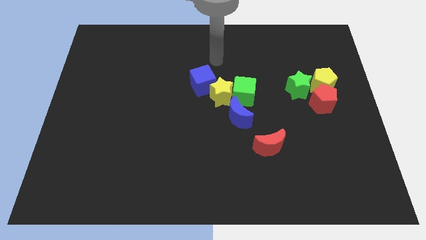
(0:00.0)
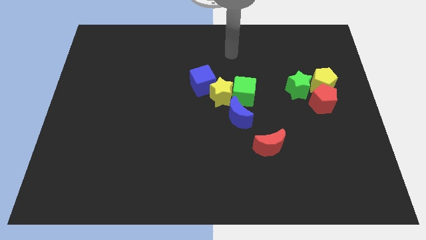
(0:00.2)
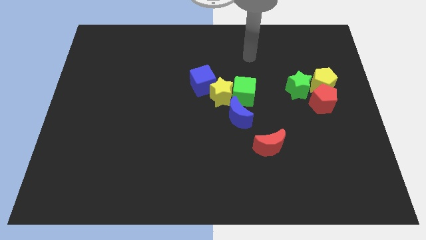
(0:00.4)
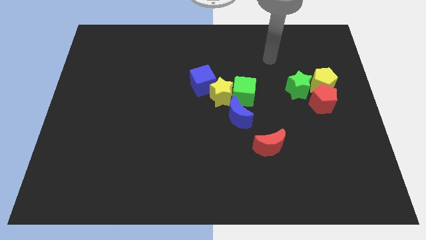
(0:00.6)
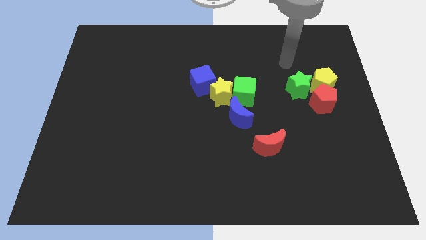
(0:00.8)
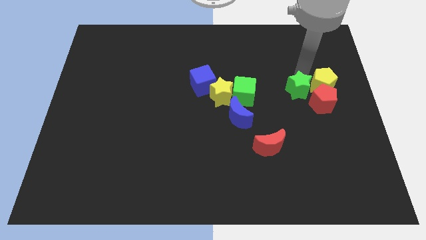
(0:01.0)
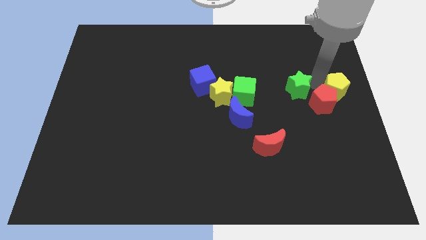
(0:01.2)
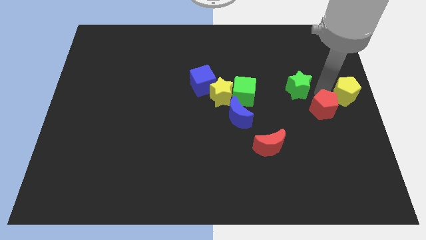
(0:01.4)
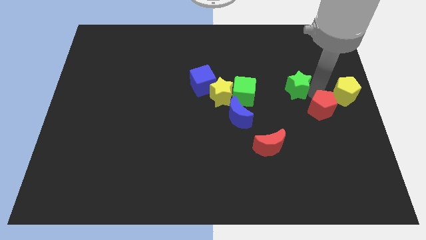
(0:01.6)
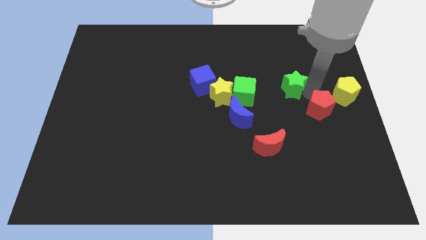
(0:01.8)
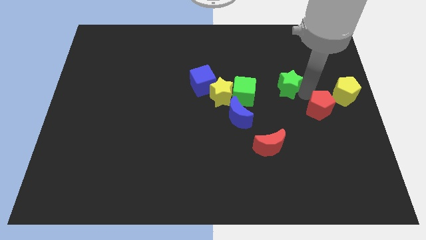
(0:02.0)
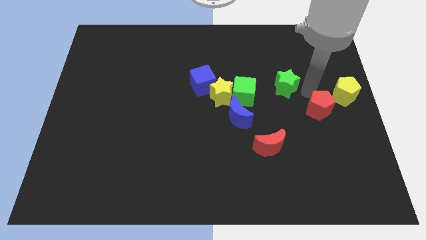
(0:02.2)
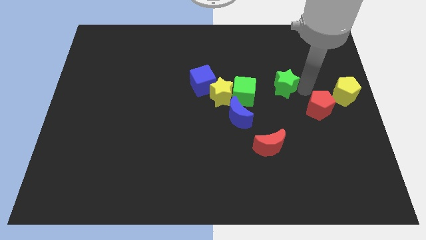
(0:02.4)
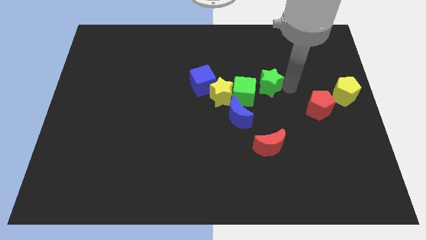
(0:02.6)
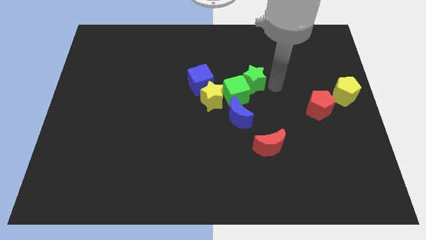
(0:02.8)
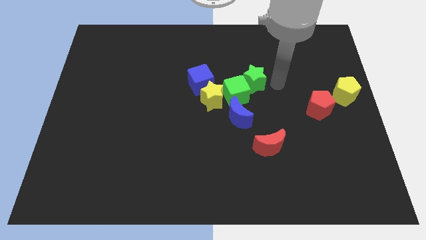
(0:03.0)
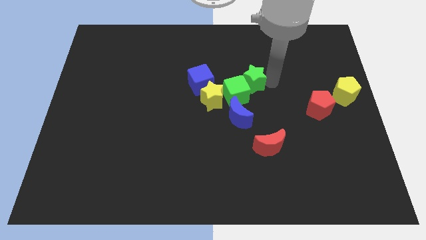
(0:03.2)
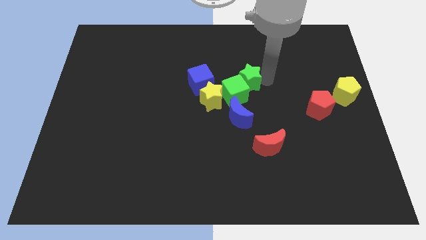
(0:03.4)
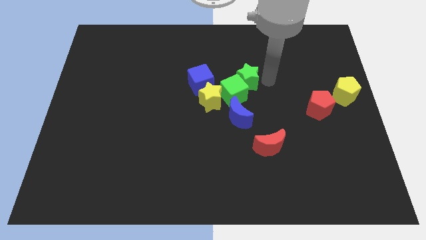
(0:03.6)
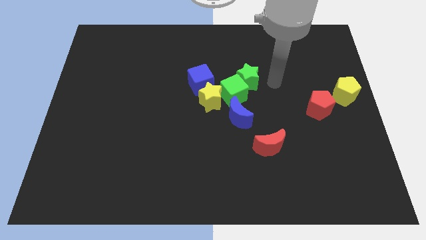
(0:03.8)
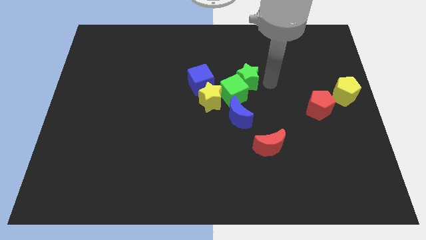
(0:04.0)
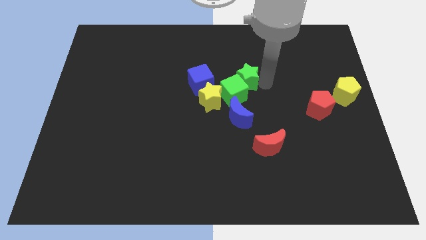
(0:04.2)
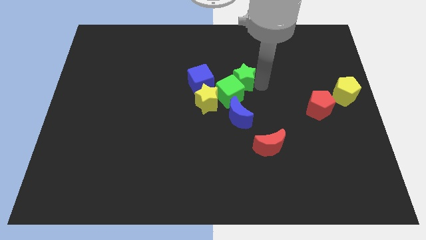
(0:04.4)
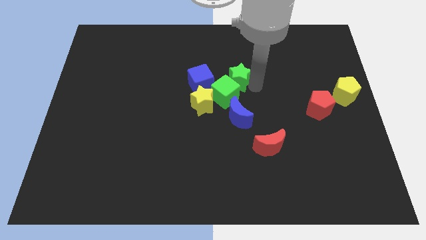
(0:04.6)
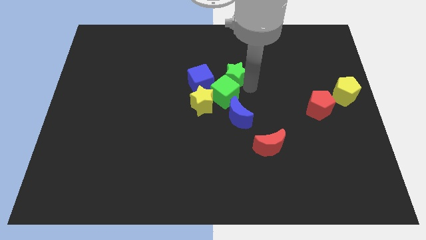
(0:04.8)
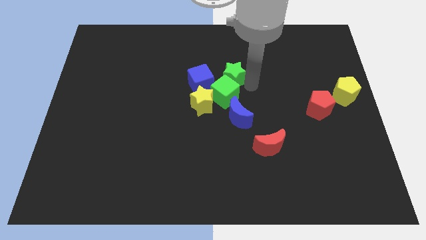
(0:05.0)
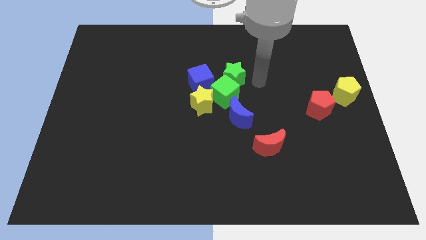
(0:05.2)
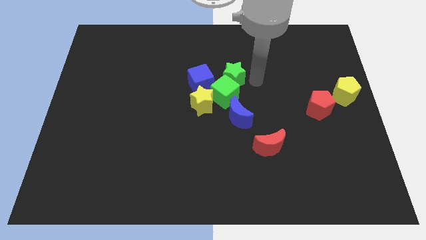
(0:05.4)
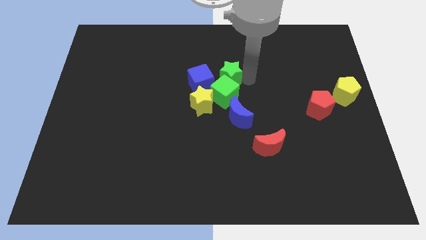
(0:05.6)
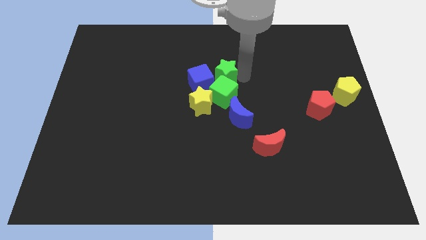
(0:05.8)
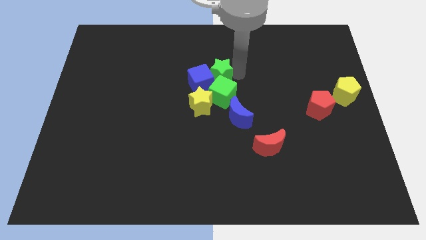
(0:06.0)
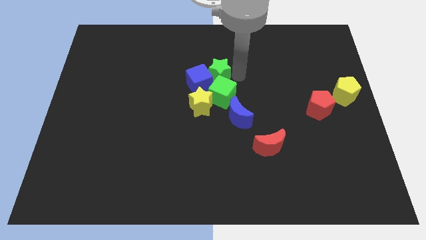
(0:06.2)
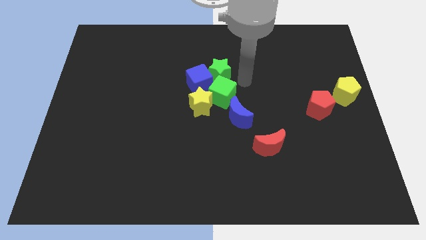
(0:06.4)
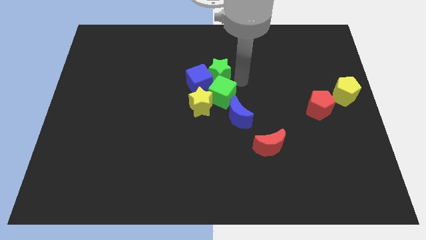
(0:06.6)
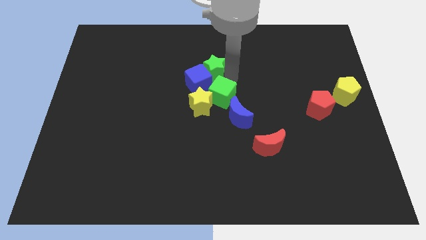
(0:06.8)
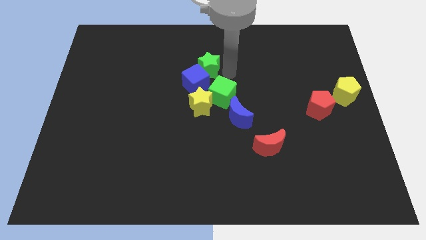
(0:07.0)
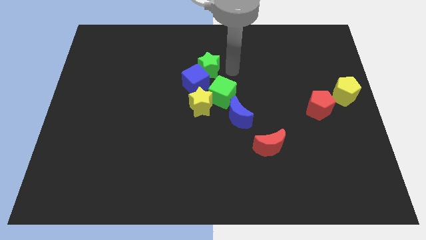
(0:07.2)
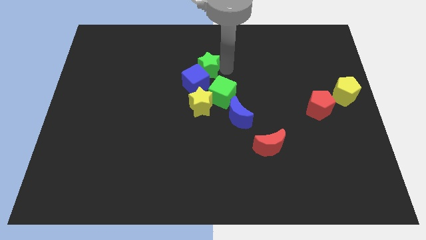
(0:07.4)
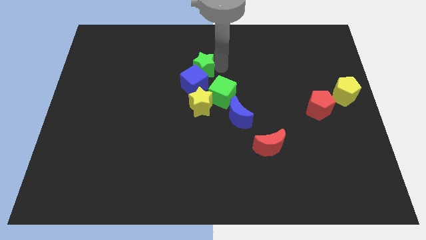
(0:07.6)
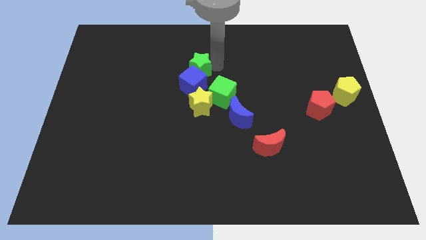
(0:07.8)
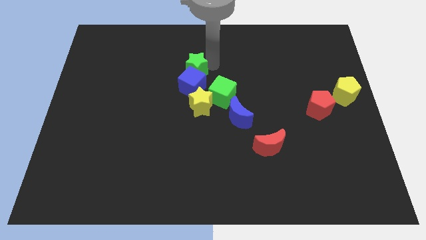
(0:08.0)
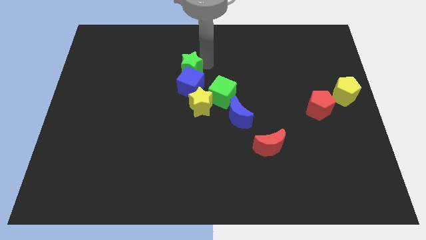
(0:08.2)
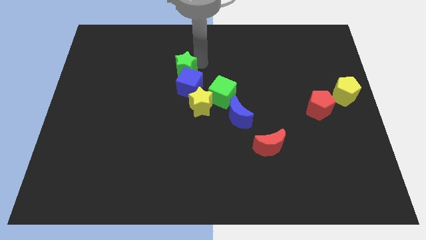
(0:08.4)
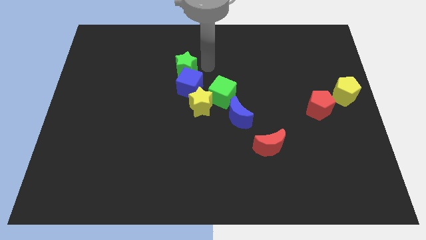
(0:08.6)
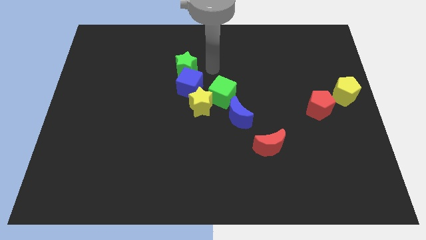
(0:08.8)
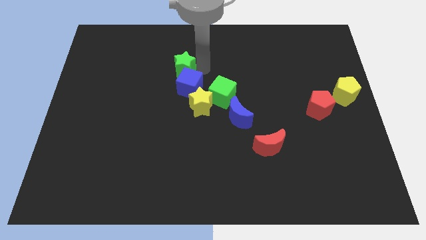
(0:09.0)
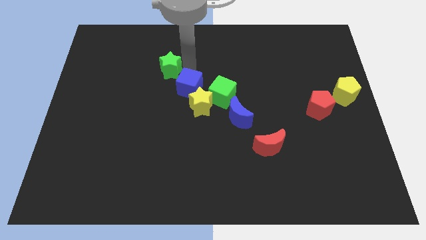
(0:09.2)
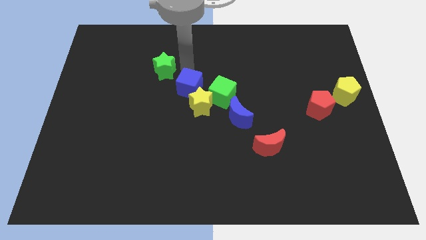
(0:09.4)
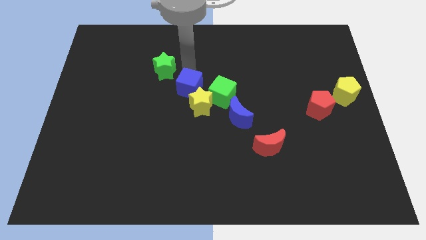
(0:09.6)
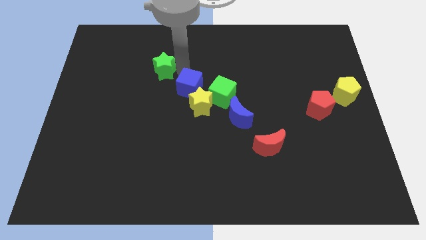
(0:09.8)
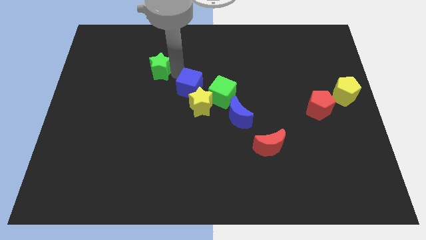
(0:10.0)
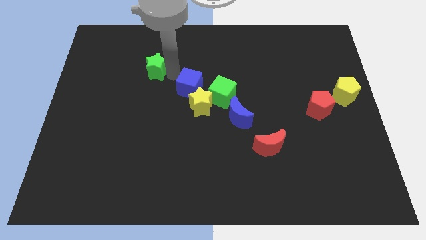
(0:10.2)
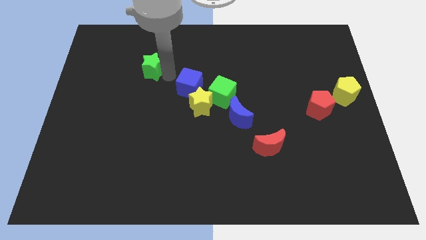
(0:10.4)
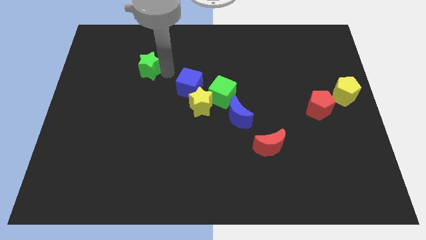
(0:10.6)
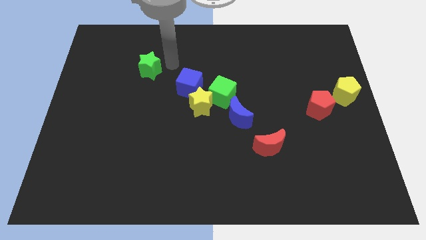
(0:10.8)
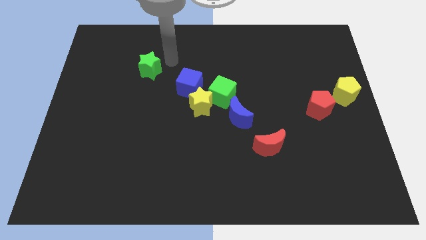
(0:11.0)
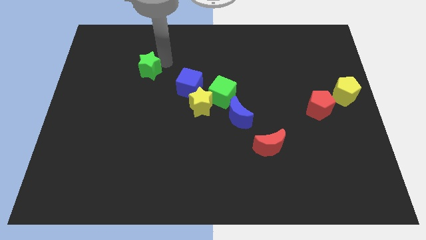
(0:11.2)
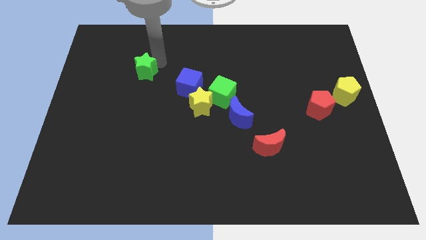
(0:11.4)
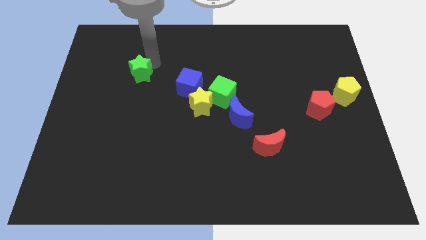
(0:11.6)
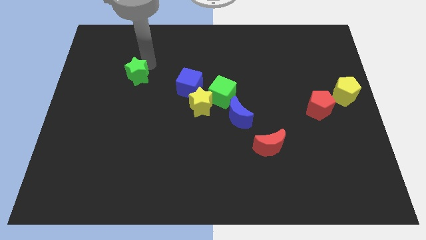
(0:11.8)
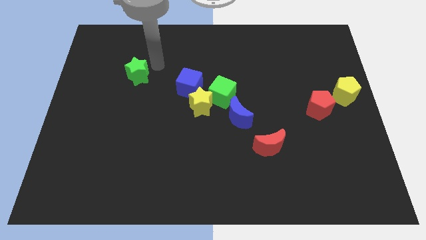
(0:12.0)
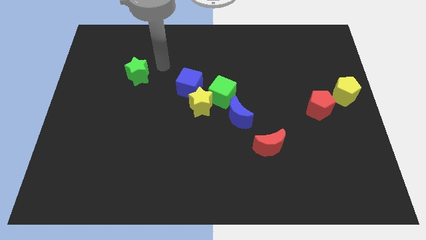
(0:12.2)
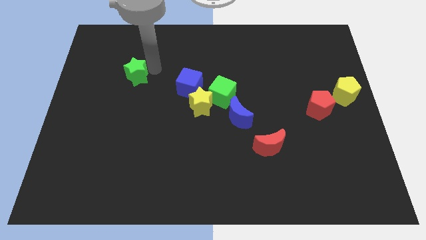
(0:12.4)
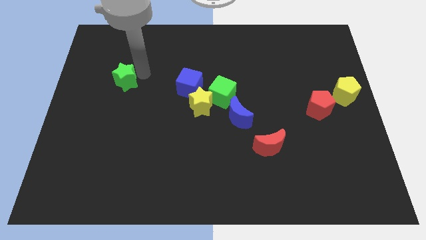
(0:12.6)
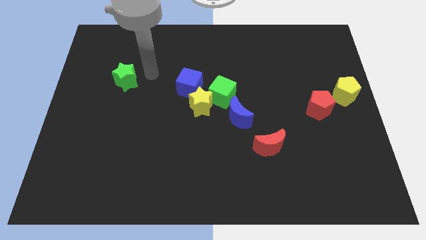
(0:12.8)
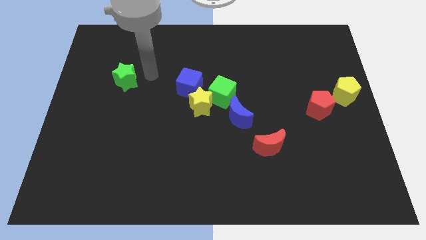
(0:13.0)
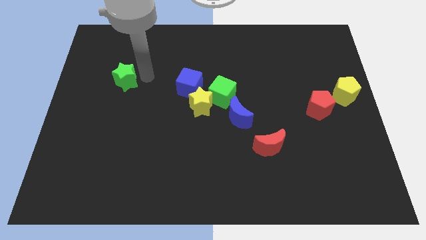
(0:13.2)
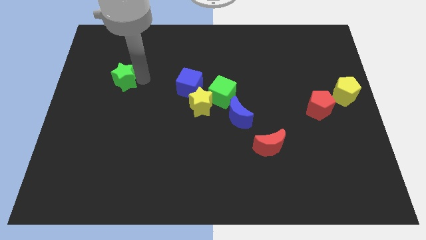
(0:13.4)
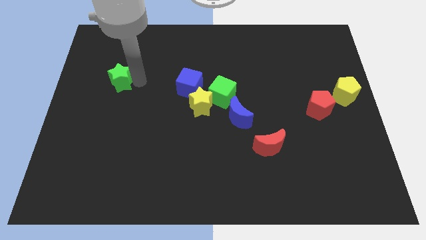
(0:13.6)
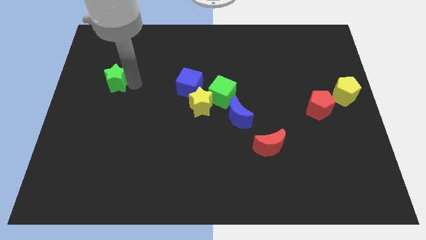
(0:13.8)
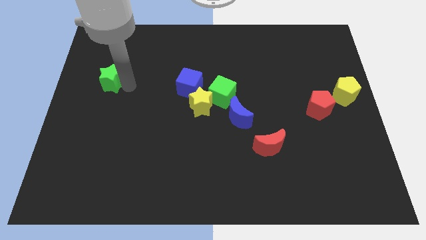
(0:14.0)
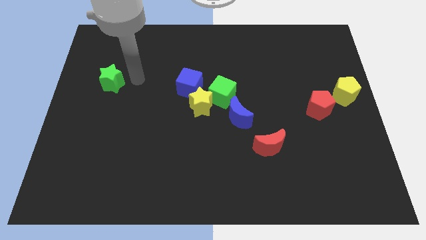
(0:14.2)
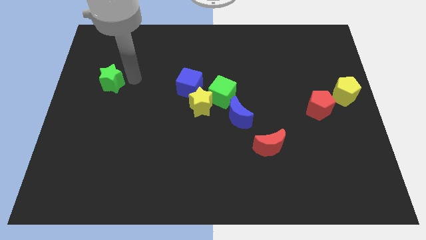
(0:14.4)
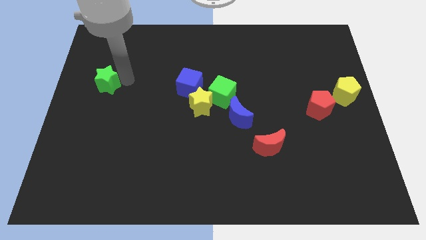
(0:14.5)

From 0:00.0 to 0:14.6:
move the green star to the left side
